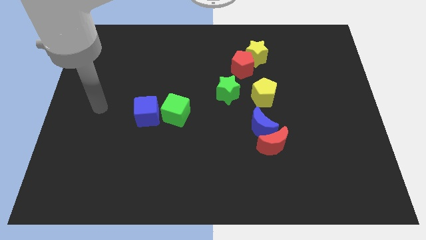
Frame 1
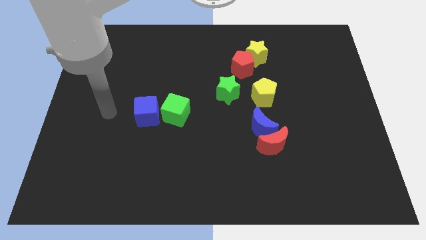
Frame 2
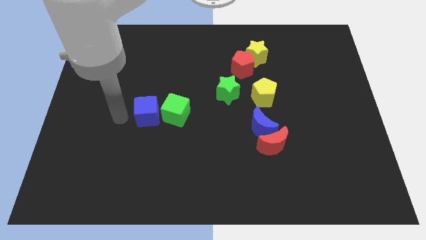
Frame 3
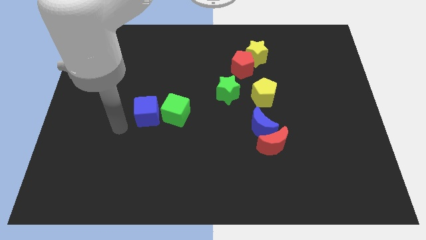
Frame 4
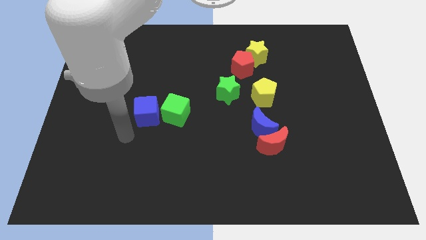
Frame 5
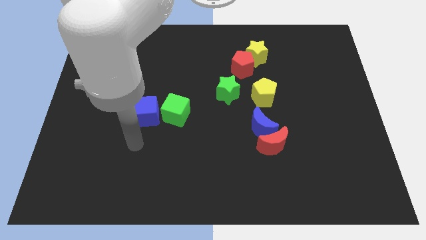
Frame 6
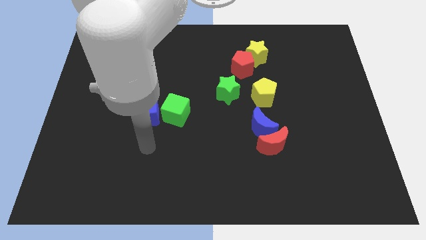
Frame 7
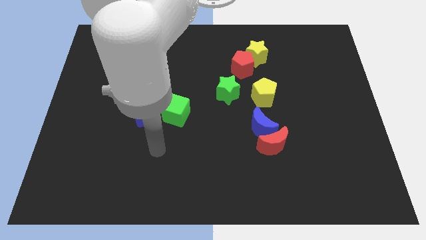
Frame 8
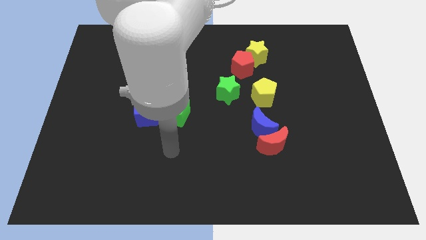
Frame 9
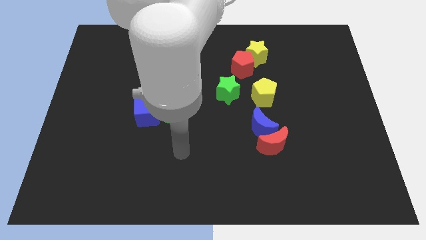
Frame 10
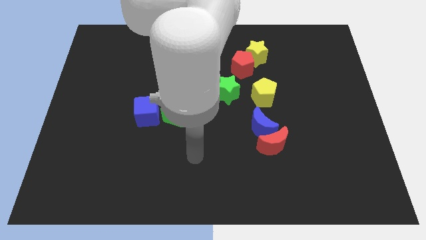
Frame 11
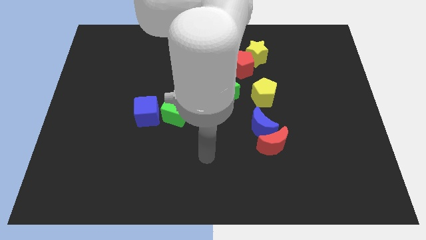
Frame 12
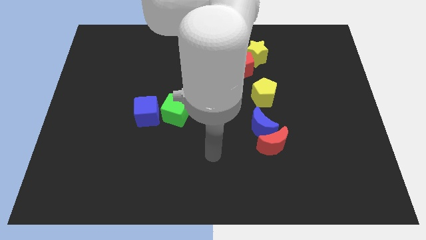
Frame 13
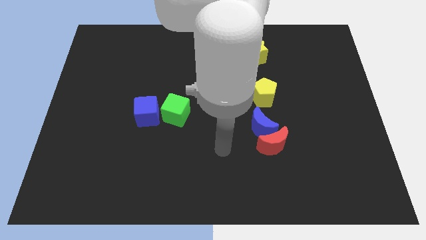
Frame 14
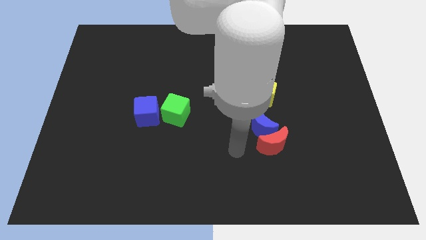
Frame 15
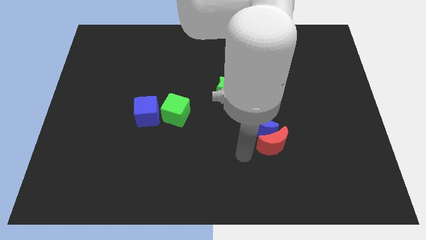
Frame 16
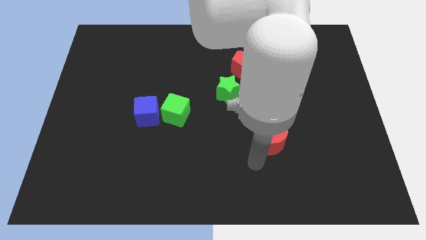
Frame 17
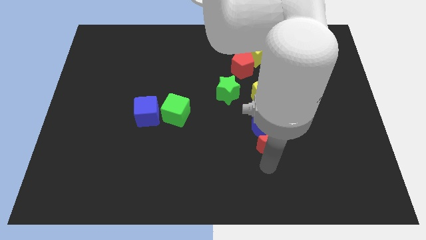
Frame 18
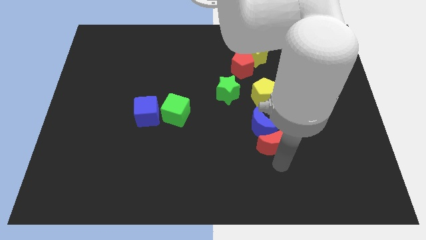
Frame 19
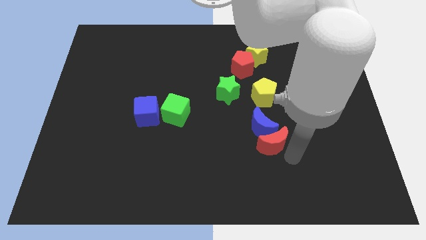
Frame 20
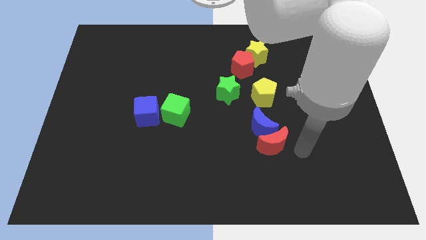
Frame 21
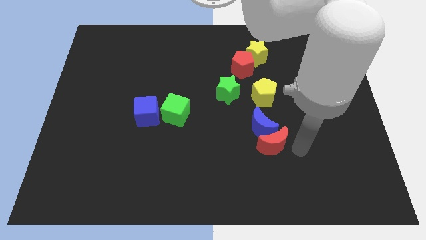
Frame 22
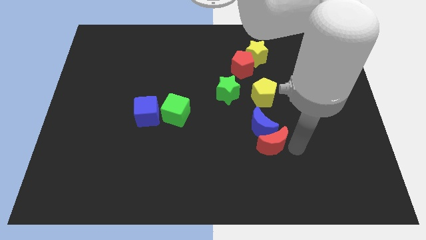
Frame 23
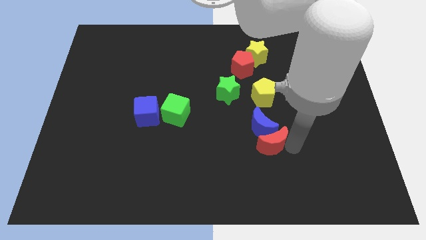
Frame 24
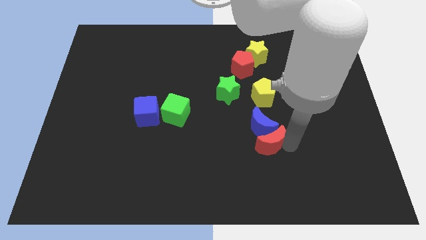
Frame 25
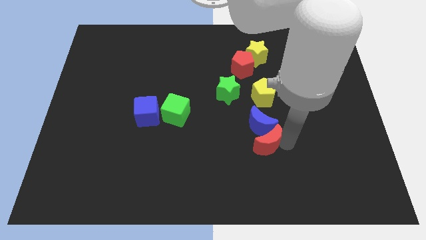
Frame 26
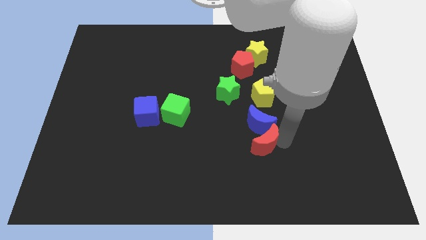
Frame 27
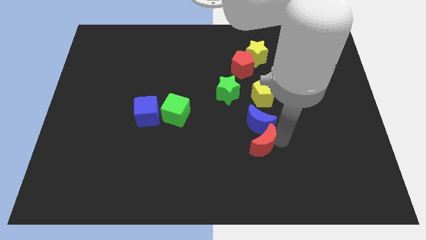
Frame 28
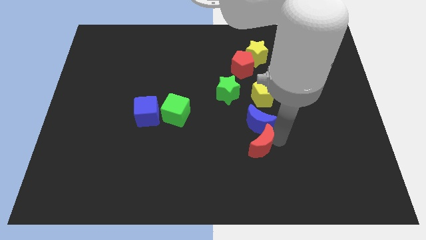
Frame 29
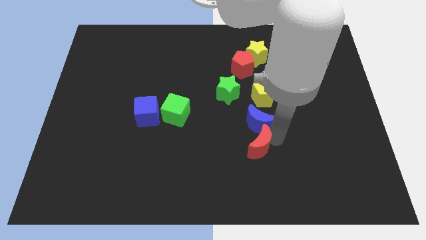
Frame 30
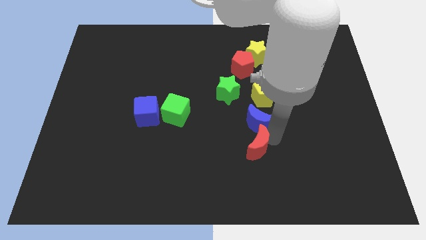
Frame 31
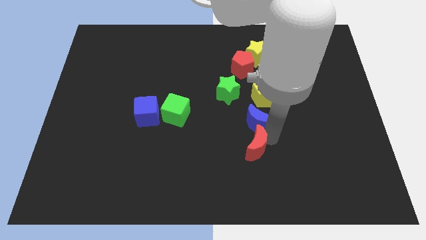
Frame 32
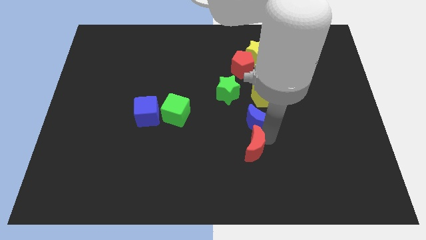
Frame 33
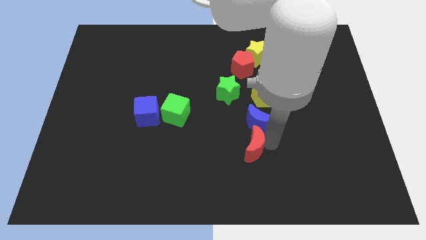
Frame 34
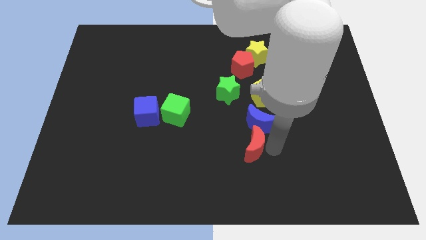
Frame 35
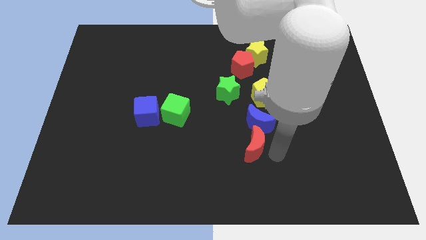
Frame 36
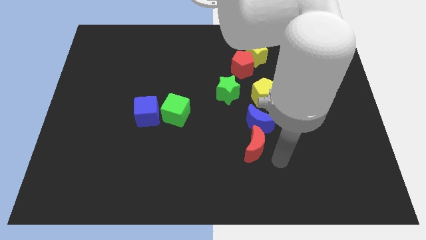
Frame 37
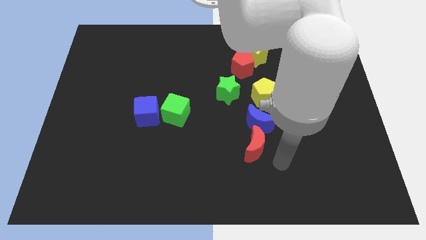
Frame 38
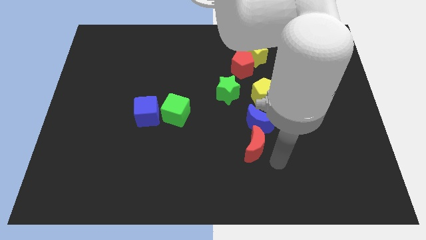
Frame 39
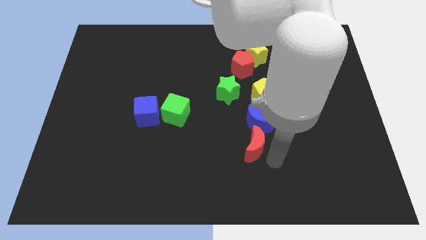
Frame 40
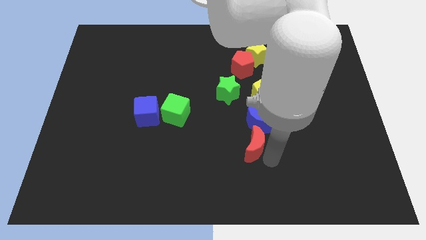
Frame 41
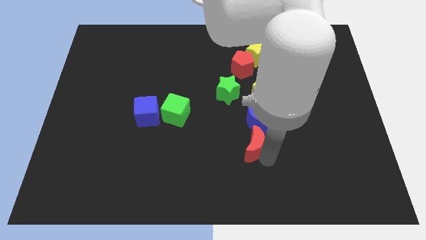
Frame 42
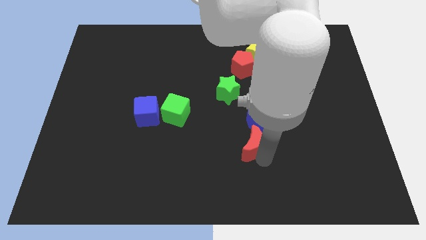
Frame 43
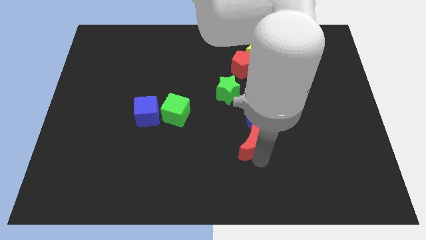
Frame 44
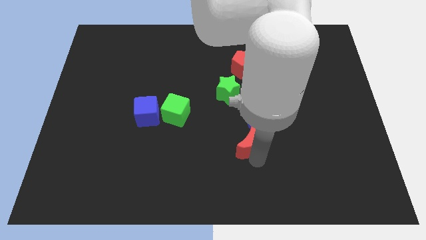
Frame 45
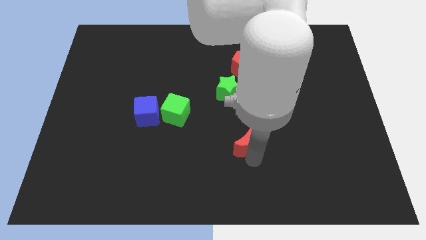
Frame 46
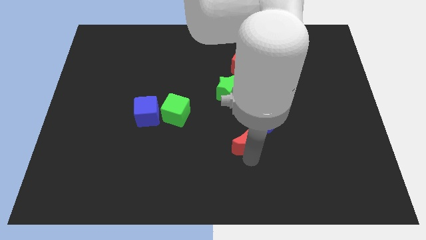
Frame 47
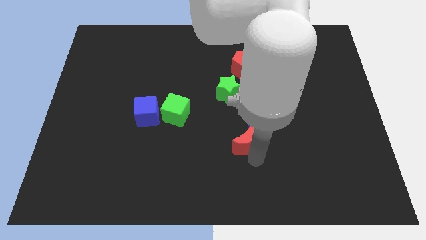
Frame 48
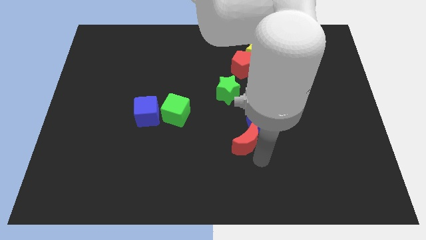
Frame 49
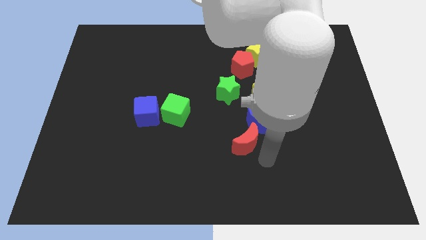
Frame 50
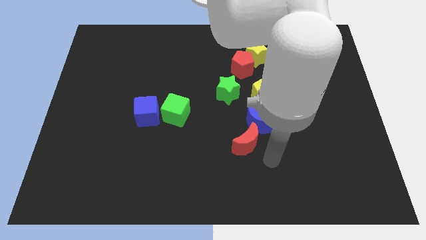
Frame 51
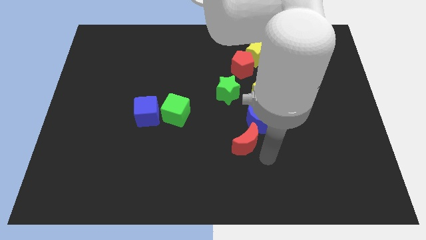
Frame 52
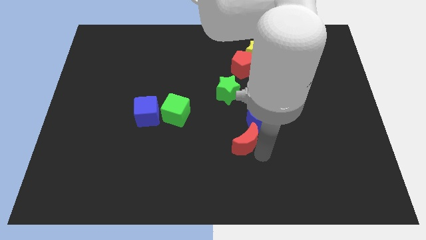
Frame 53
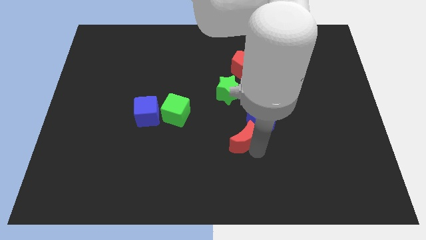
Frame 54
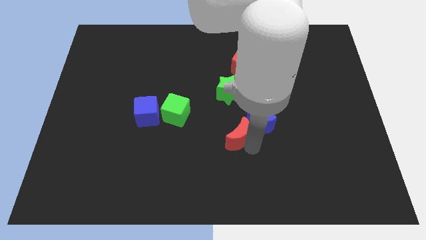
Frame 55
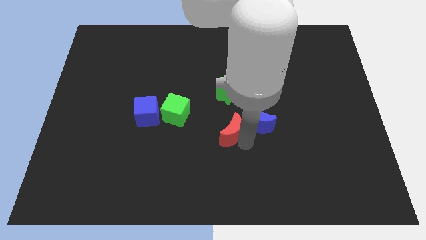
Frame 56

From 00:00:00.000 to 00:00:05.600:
slightly move the red moon diagonally up and to the left

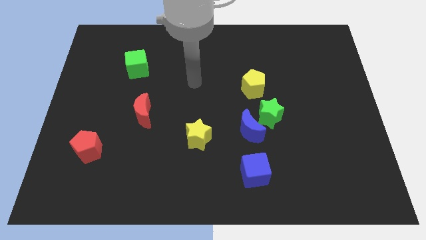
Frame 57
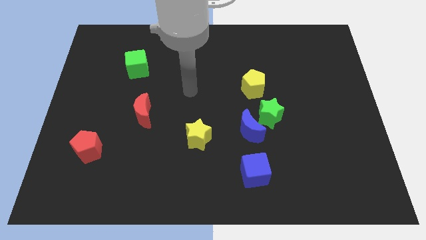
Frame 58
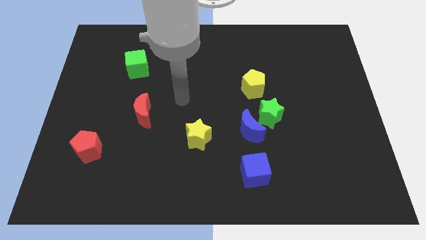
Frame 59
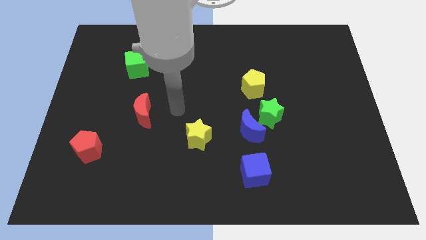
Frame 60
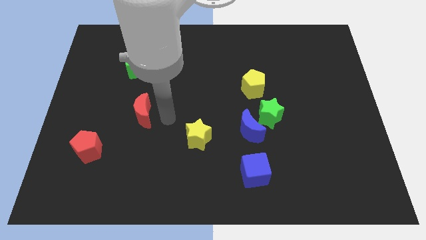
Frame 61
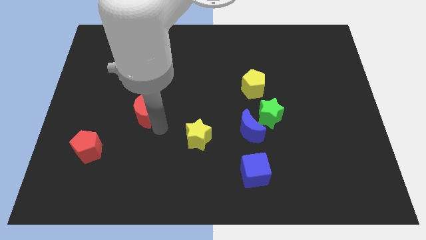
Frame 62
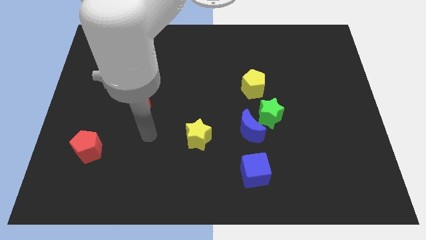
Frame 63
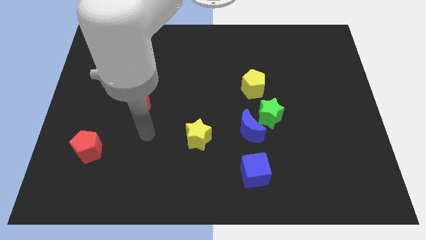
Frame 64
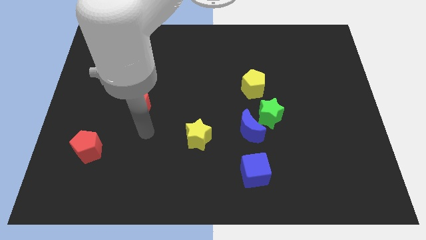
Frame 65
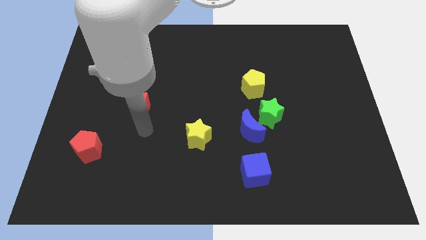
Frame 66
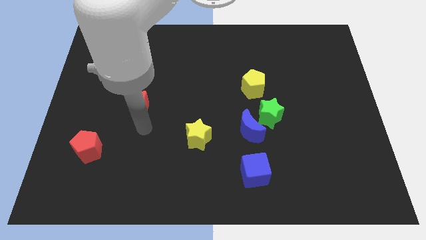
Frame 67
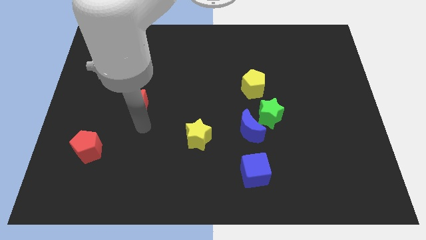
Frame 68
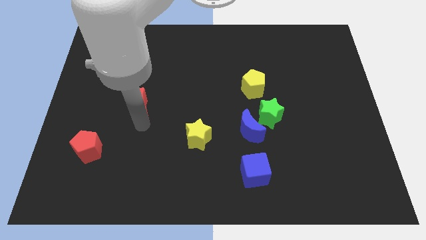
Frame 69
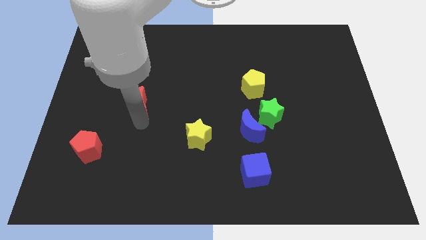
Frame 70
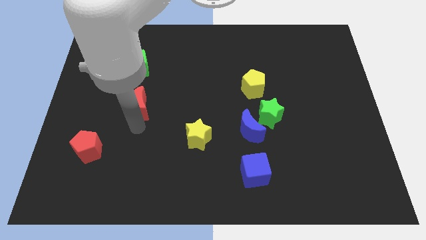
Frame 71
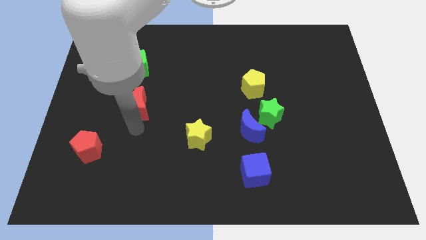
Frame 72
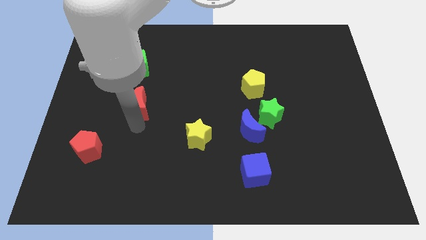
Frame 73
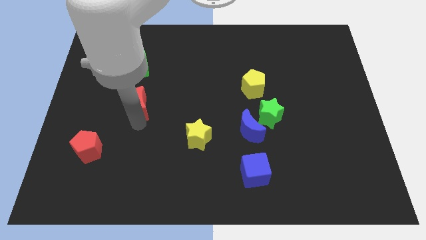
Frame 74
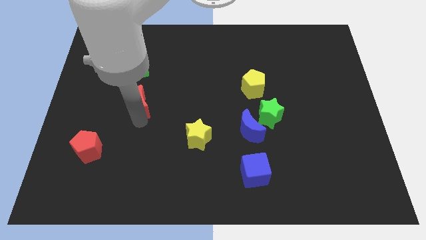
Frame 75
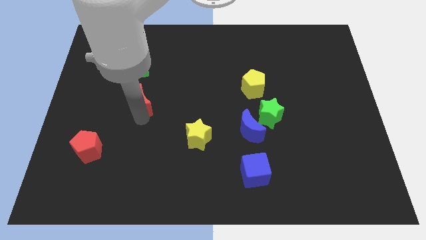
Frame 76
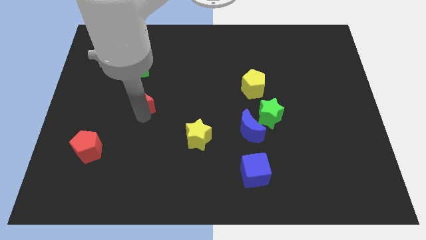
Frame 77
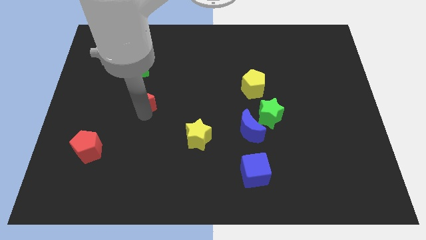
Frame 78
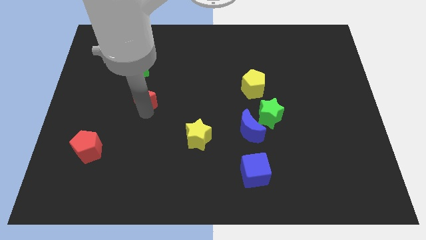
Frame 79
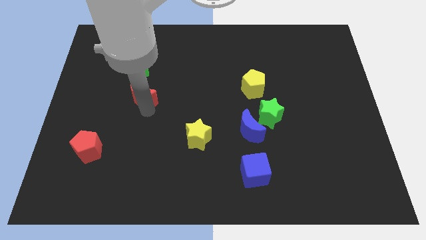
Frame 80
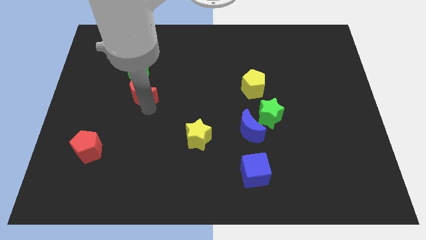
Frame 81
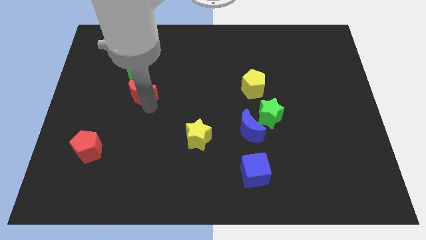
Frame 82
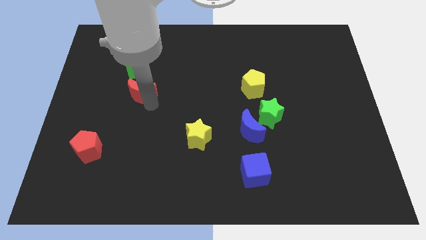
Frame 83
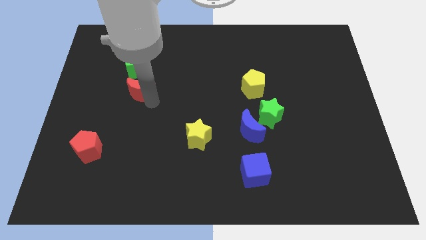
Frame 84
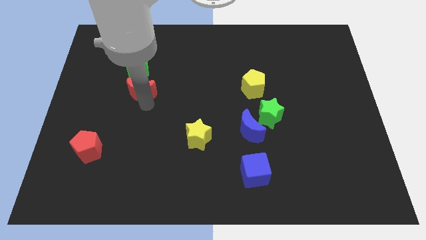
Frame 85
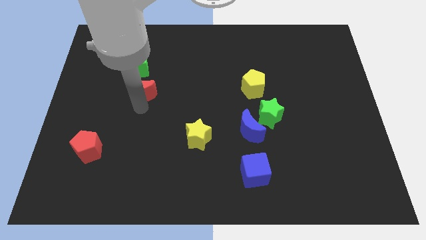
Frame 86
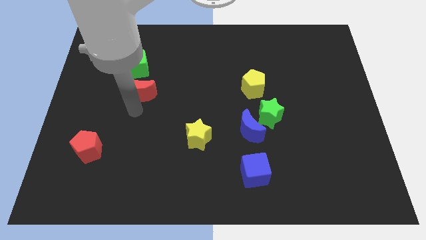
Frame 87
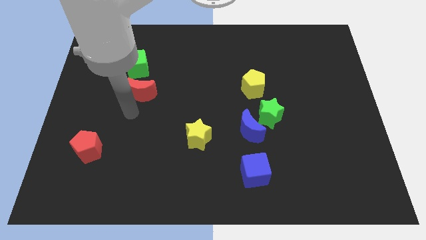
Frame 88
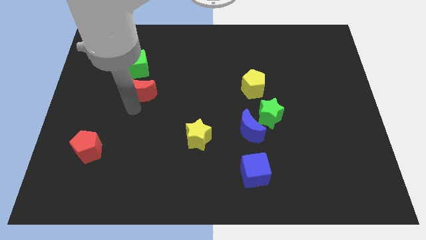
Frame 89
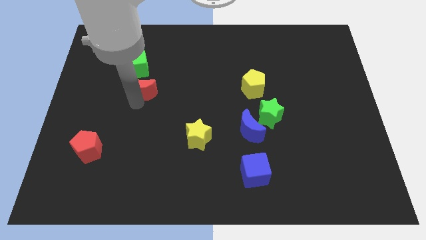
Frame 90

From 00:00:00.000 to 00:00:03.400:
slide the red moon upwards a little
